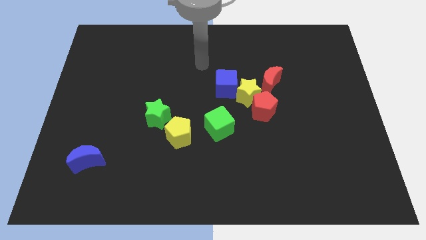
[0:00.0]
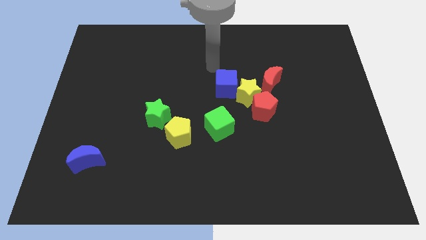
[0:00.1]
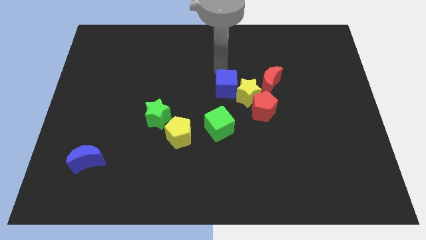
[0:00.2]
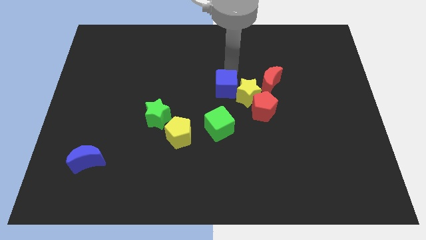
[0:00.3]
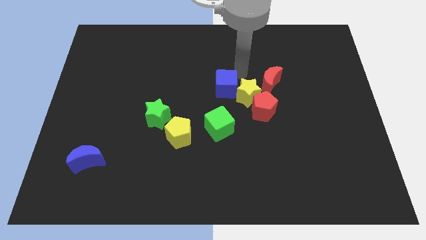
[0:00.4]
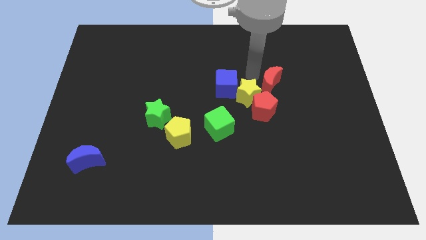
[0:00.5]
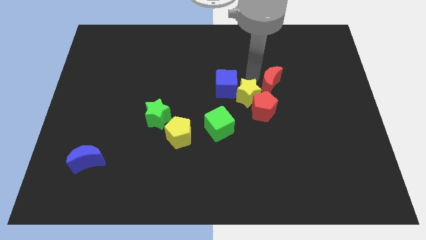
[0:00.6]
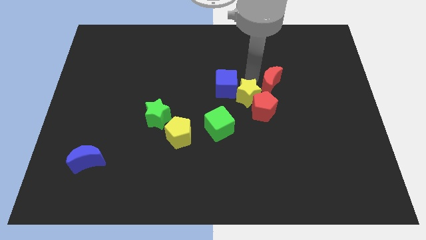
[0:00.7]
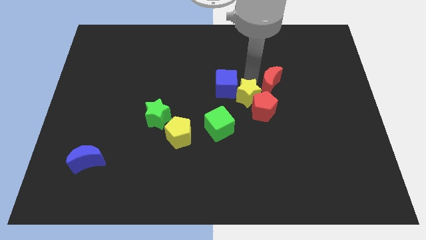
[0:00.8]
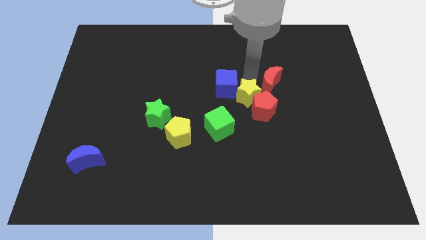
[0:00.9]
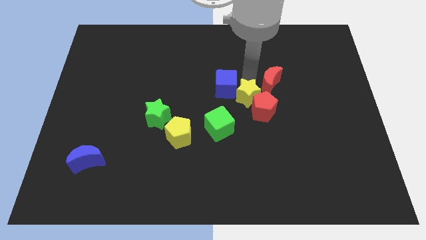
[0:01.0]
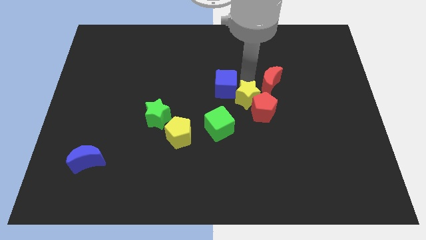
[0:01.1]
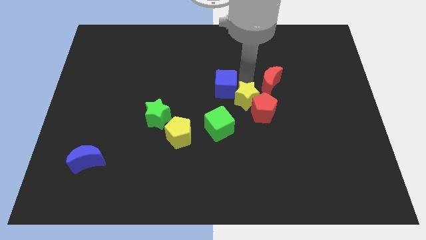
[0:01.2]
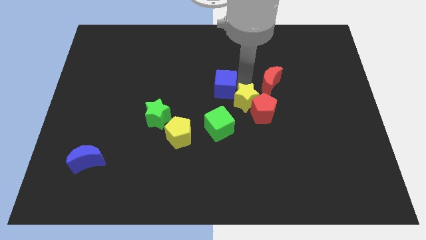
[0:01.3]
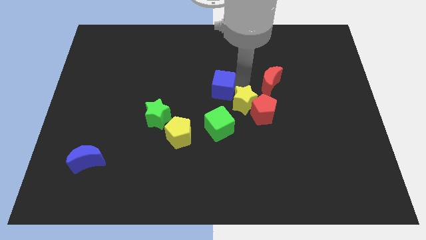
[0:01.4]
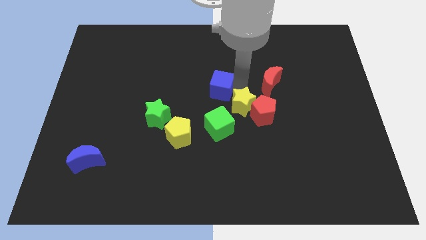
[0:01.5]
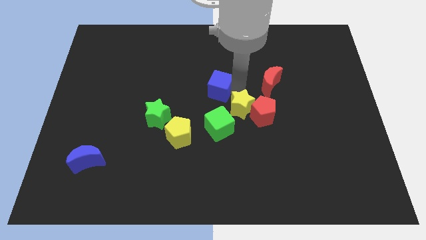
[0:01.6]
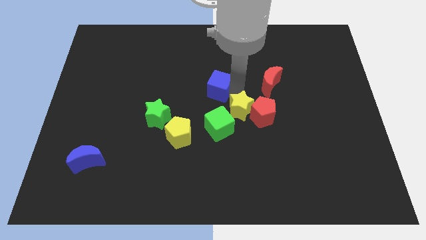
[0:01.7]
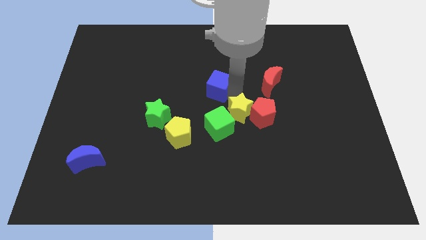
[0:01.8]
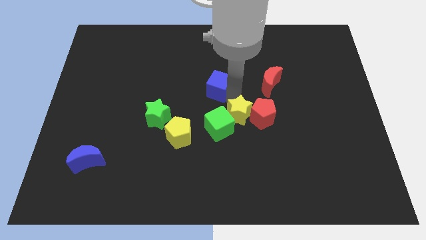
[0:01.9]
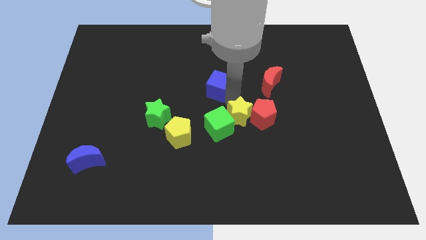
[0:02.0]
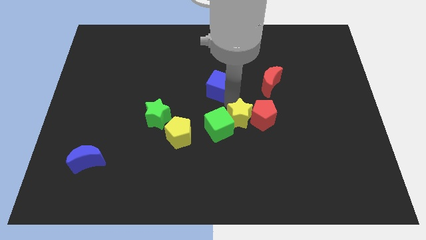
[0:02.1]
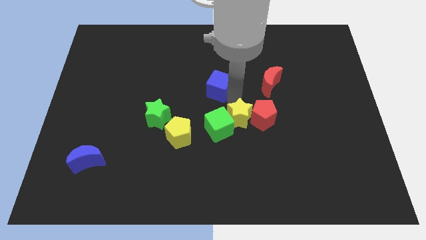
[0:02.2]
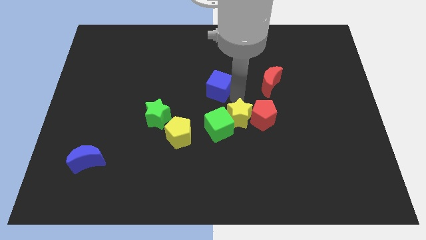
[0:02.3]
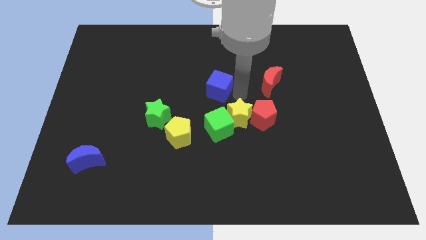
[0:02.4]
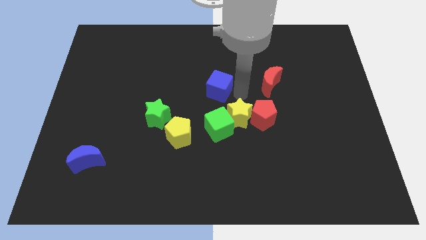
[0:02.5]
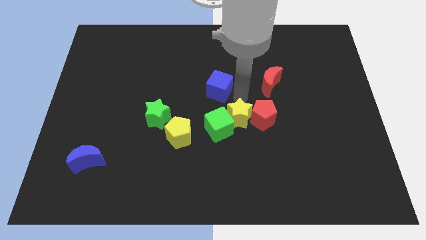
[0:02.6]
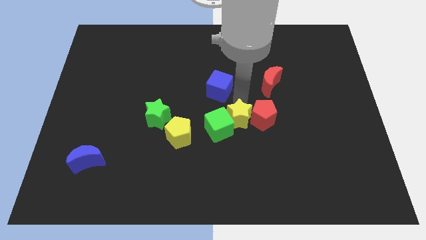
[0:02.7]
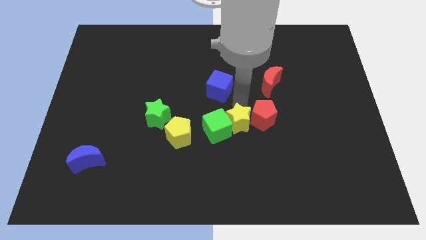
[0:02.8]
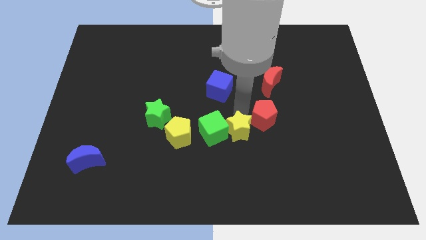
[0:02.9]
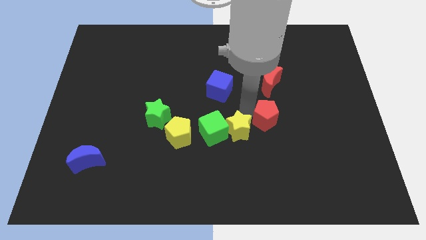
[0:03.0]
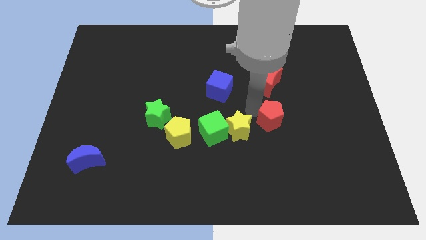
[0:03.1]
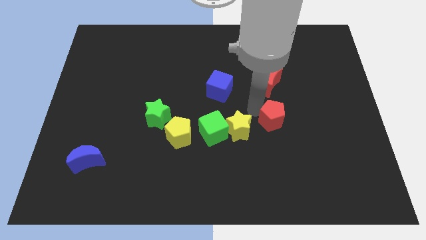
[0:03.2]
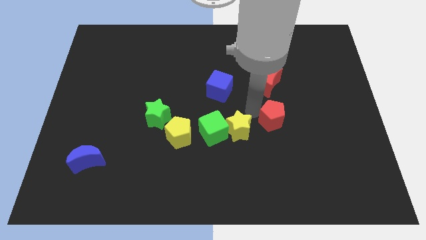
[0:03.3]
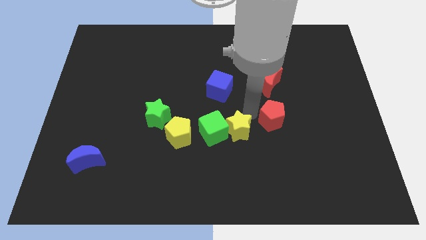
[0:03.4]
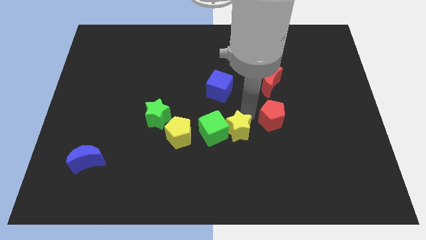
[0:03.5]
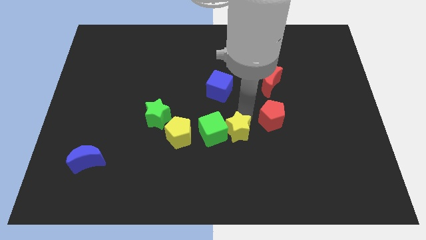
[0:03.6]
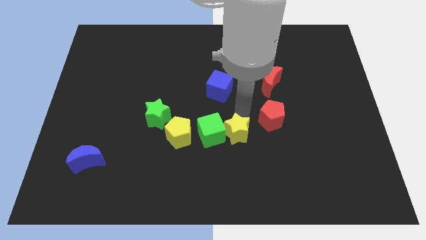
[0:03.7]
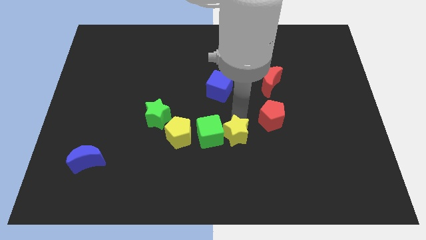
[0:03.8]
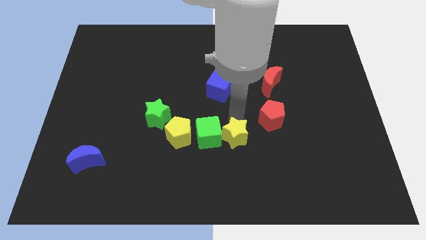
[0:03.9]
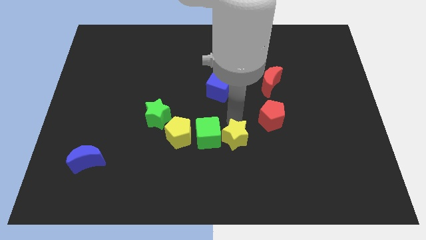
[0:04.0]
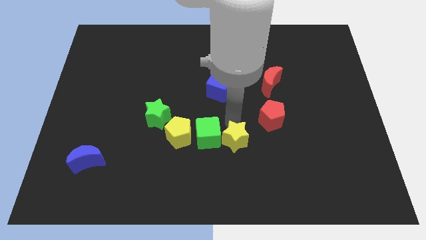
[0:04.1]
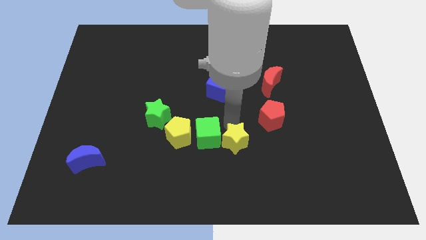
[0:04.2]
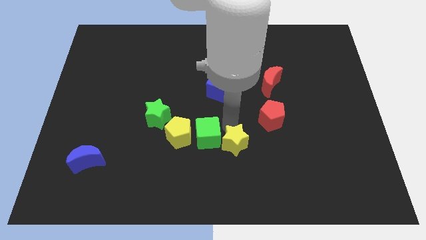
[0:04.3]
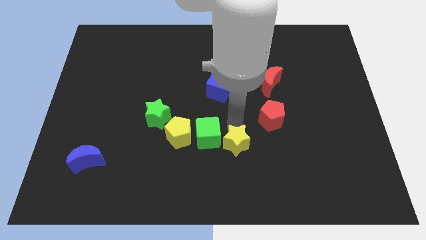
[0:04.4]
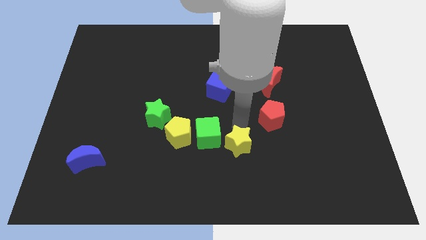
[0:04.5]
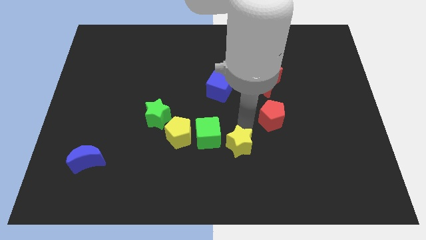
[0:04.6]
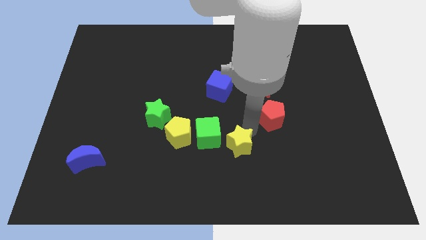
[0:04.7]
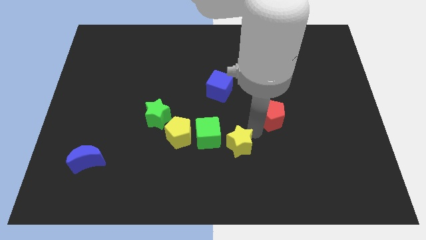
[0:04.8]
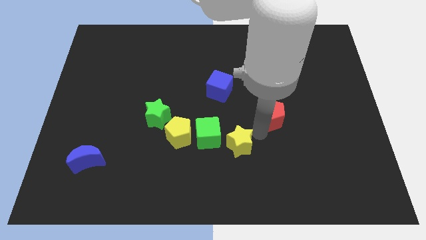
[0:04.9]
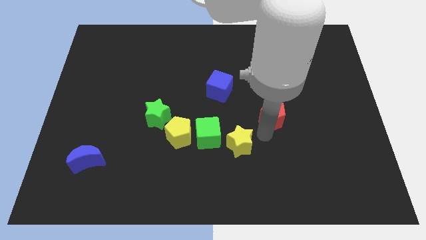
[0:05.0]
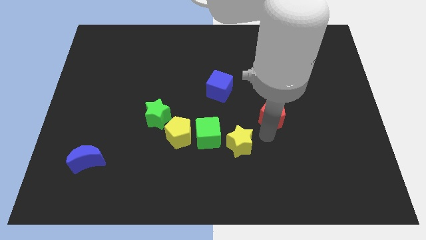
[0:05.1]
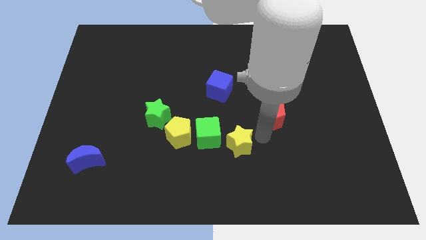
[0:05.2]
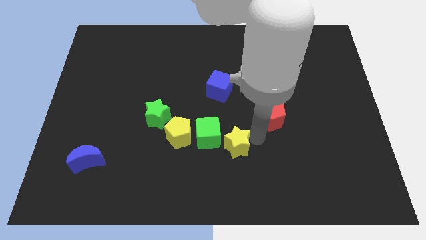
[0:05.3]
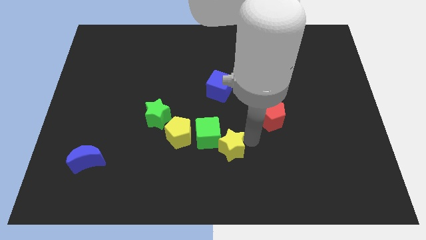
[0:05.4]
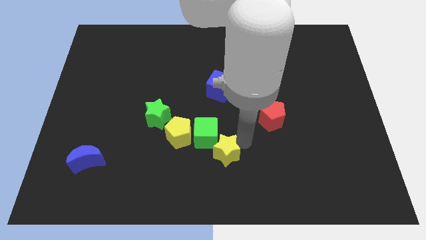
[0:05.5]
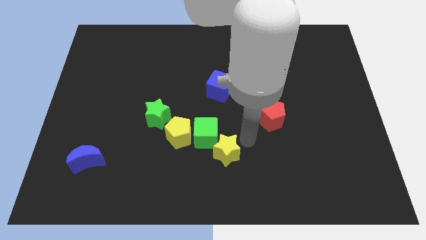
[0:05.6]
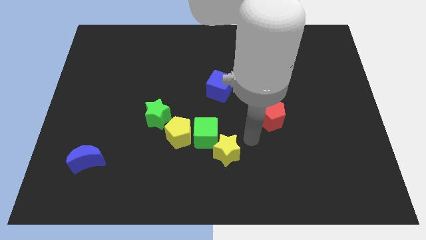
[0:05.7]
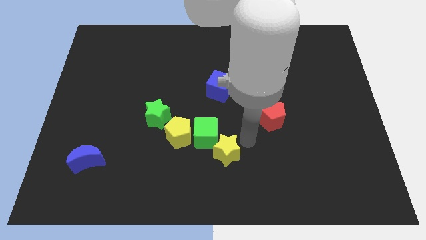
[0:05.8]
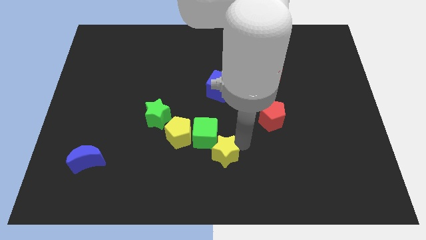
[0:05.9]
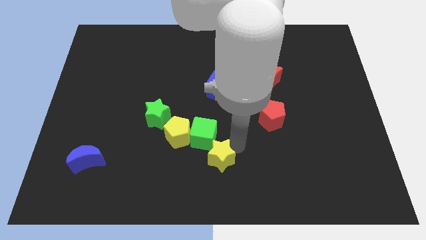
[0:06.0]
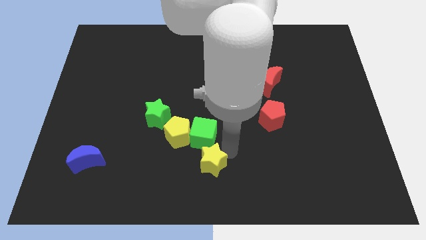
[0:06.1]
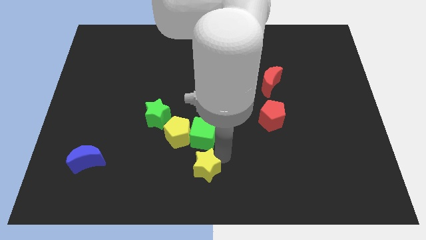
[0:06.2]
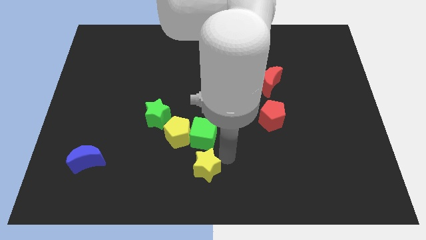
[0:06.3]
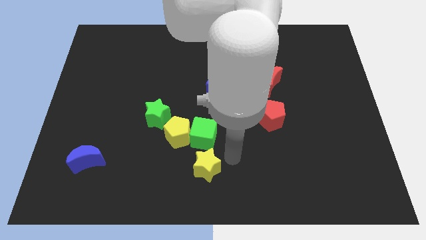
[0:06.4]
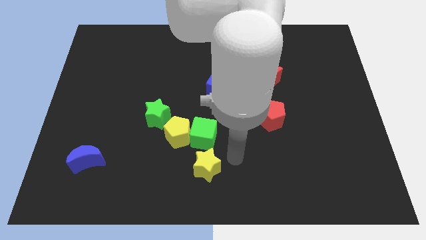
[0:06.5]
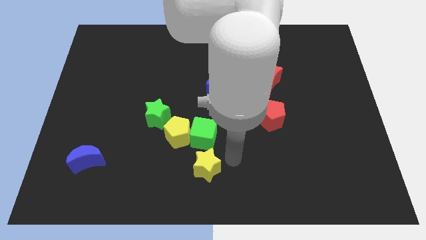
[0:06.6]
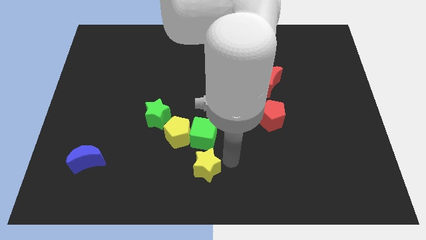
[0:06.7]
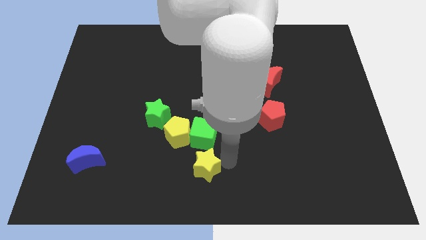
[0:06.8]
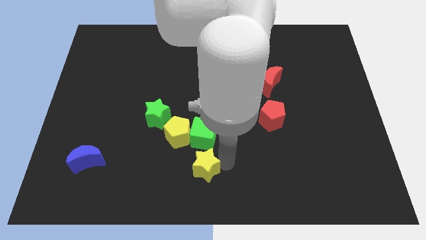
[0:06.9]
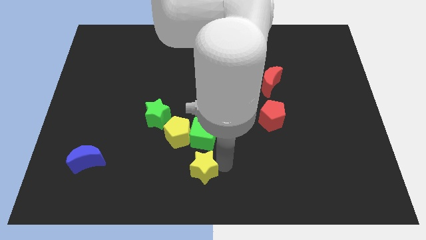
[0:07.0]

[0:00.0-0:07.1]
slide the yellow star down and to the left

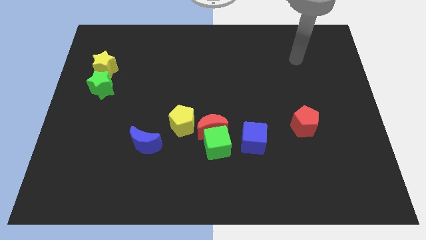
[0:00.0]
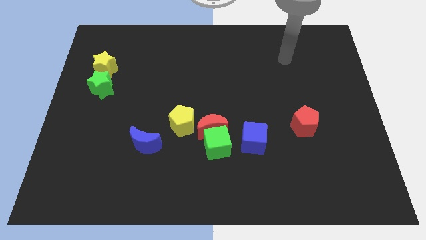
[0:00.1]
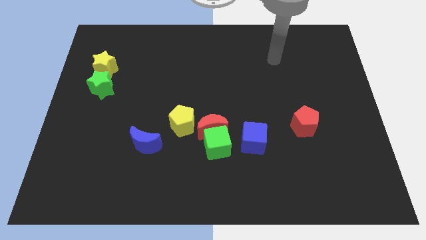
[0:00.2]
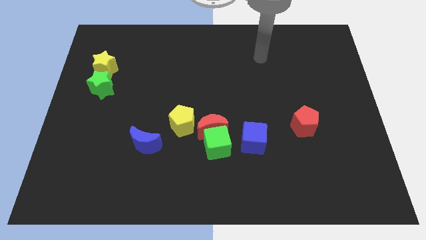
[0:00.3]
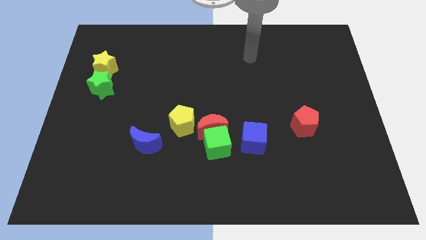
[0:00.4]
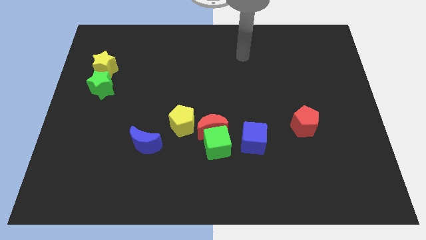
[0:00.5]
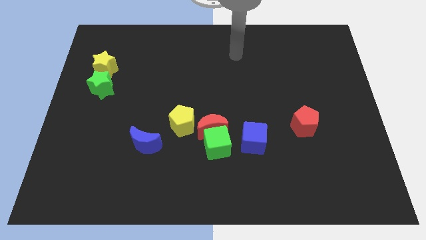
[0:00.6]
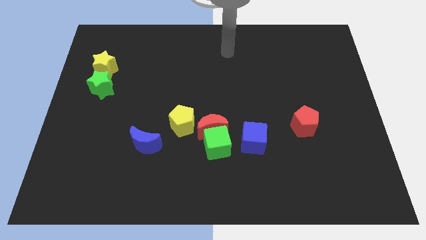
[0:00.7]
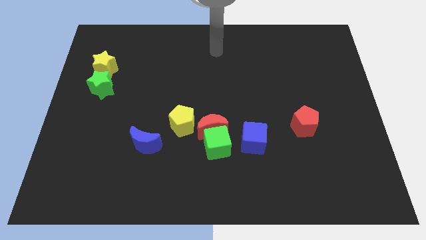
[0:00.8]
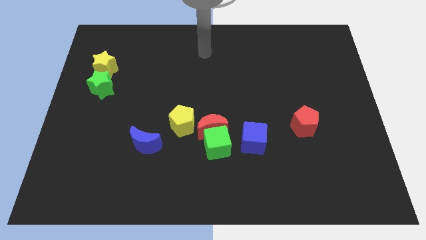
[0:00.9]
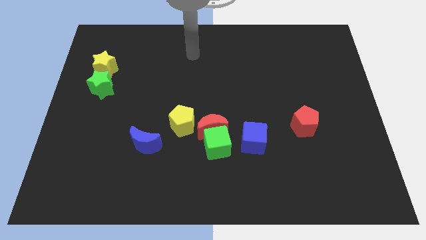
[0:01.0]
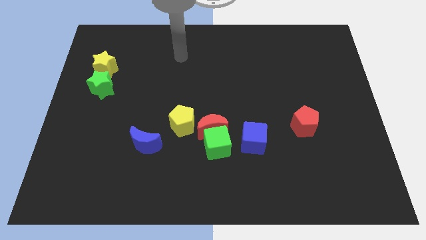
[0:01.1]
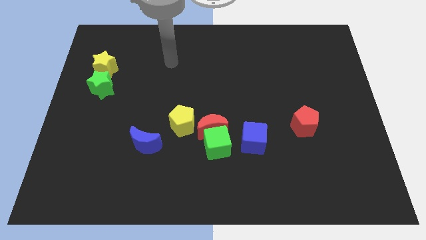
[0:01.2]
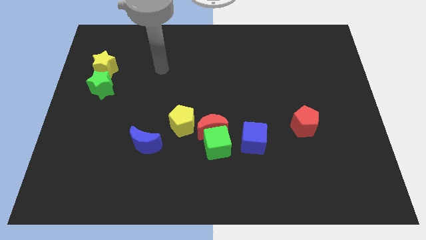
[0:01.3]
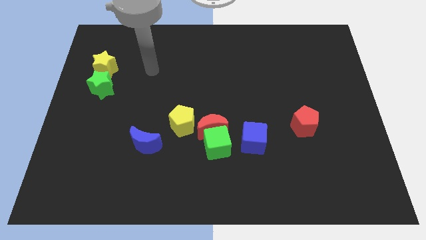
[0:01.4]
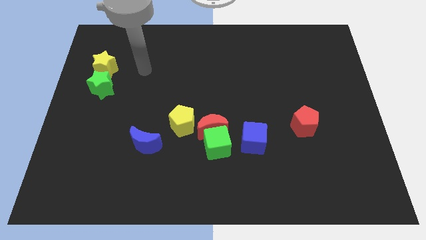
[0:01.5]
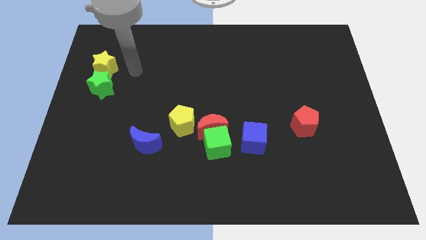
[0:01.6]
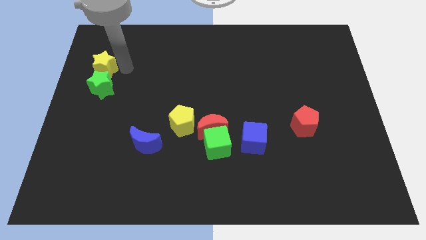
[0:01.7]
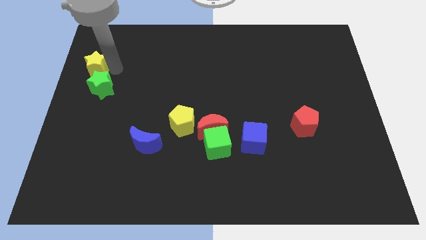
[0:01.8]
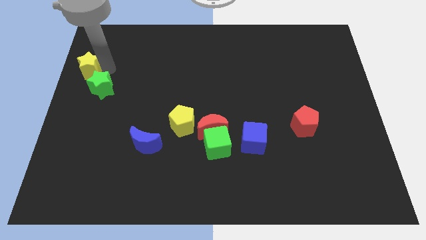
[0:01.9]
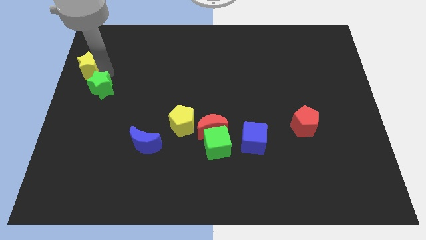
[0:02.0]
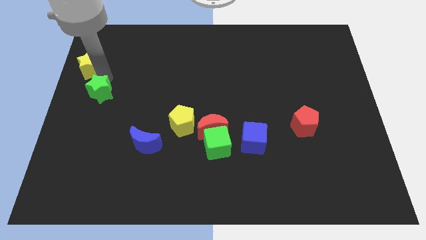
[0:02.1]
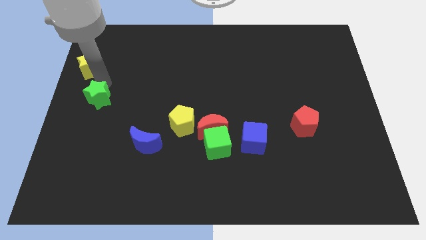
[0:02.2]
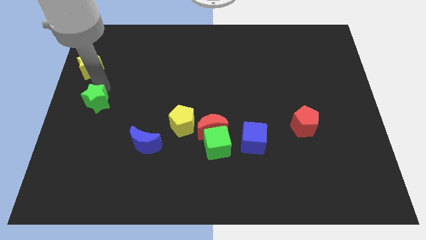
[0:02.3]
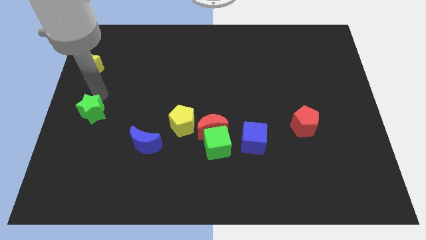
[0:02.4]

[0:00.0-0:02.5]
slide the green star slightly downwards
